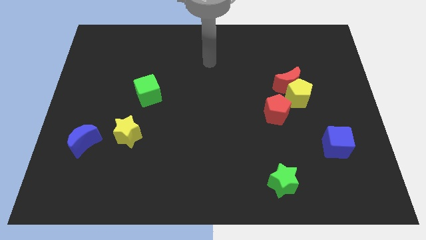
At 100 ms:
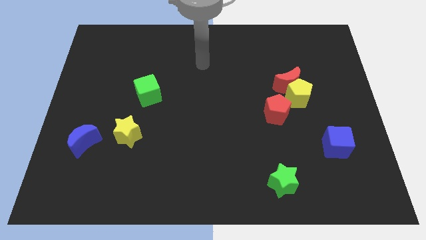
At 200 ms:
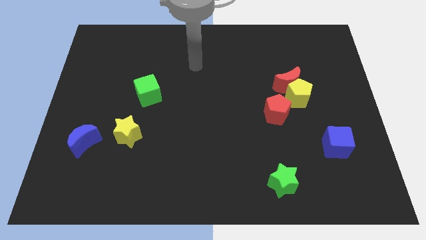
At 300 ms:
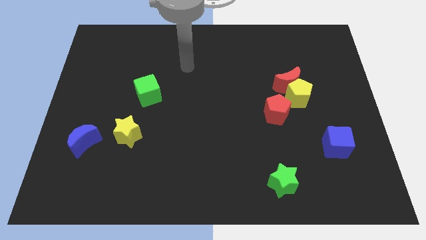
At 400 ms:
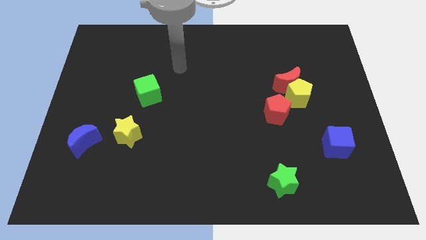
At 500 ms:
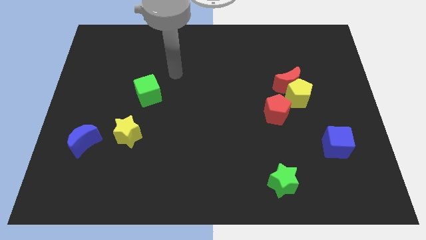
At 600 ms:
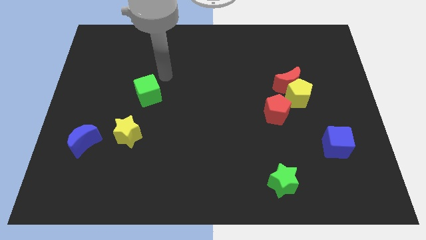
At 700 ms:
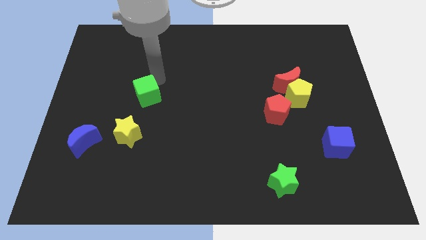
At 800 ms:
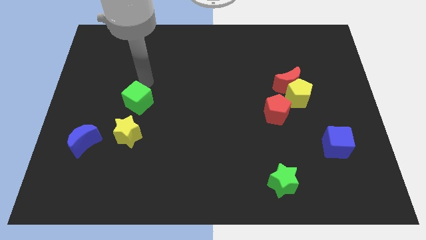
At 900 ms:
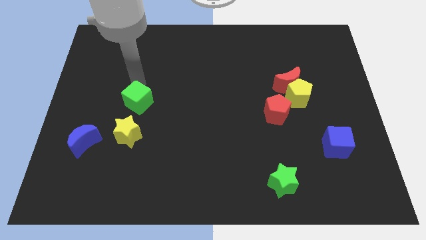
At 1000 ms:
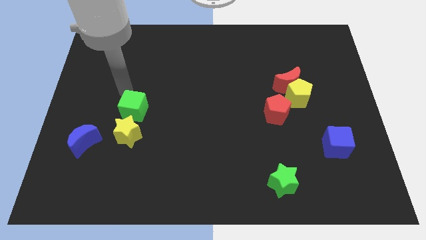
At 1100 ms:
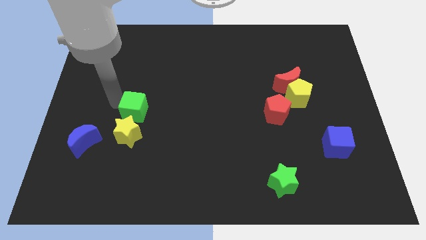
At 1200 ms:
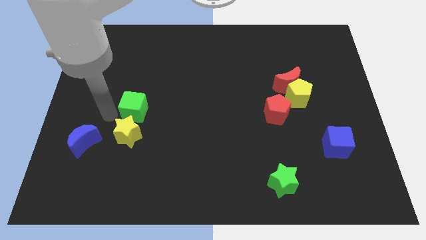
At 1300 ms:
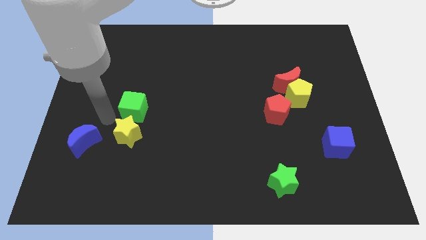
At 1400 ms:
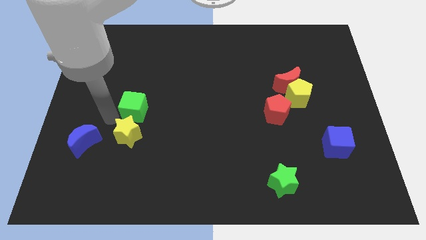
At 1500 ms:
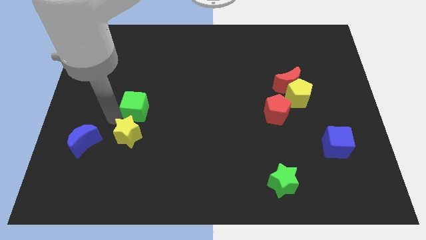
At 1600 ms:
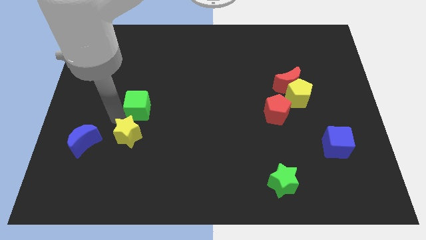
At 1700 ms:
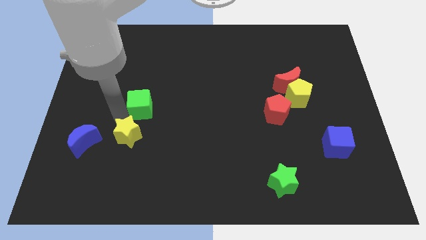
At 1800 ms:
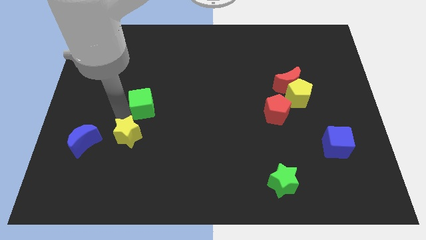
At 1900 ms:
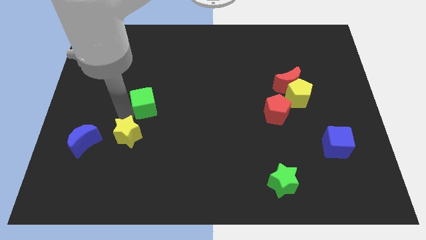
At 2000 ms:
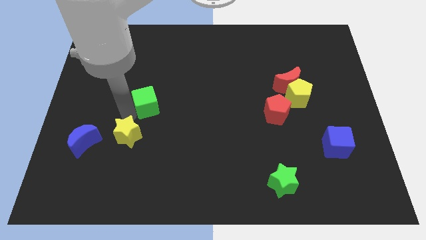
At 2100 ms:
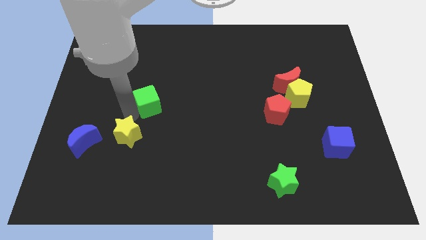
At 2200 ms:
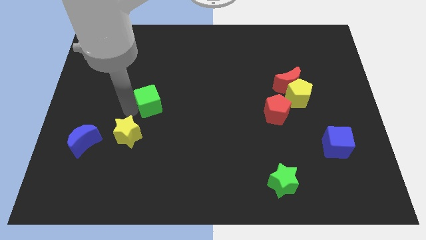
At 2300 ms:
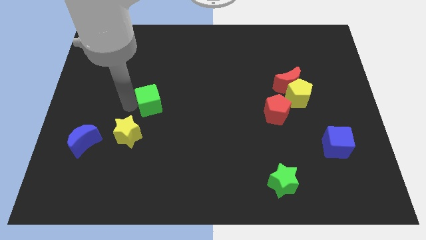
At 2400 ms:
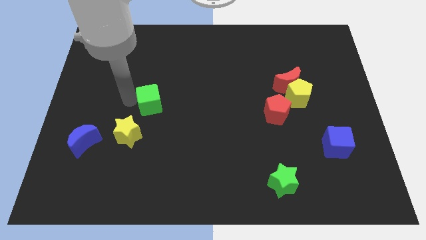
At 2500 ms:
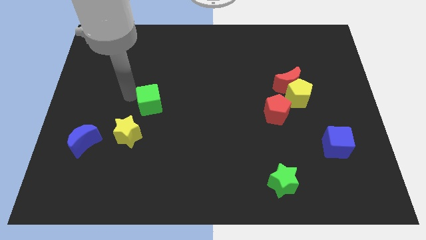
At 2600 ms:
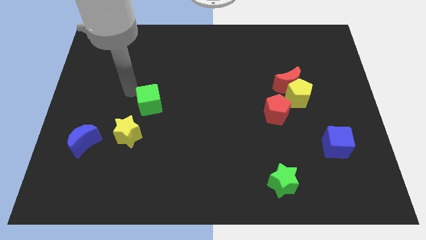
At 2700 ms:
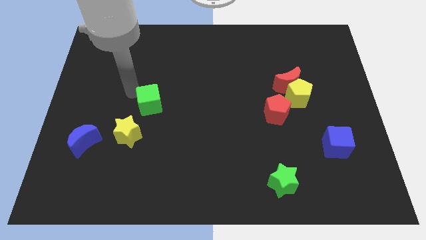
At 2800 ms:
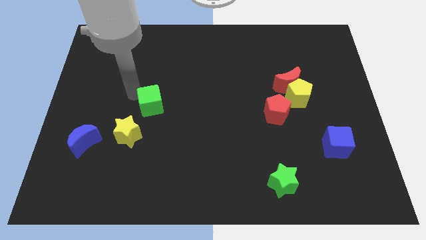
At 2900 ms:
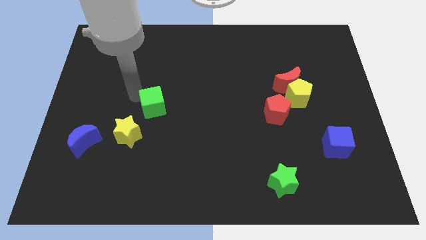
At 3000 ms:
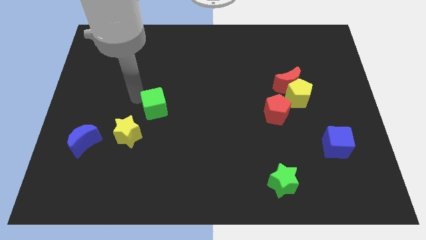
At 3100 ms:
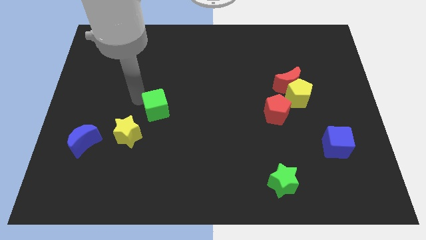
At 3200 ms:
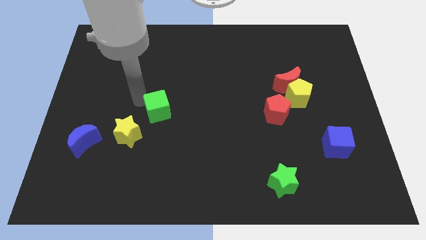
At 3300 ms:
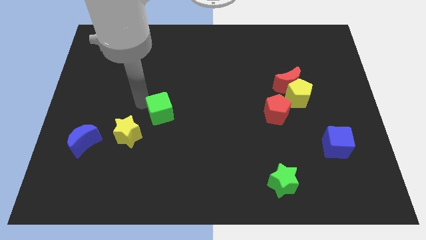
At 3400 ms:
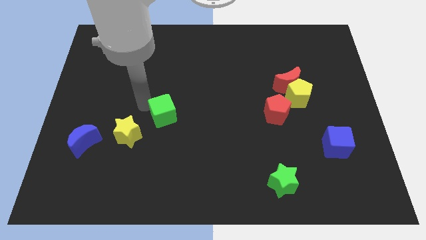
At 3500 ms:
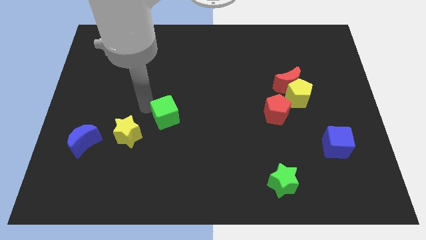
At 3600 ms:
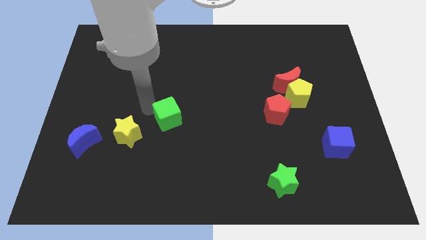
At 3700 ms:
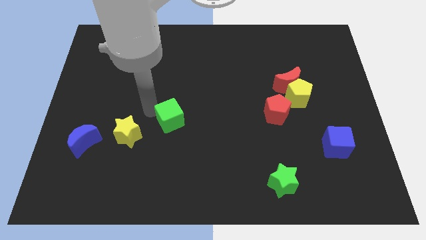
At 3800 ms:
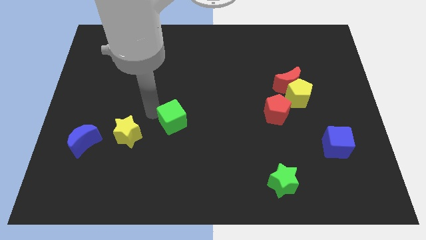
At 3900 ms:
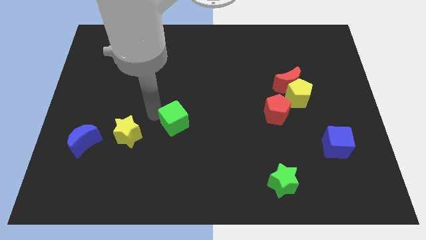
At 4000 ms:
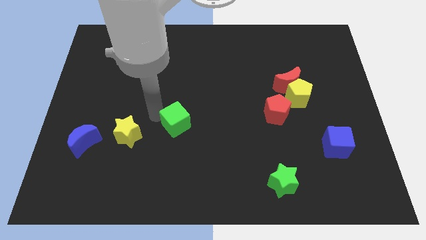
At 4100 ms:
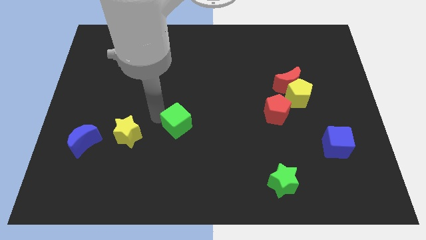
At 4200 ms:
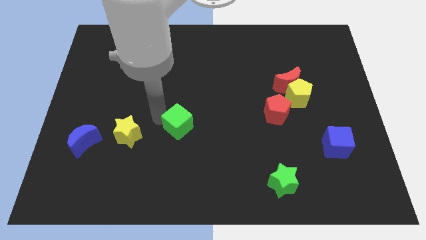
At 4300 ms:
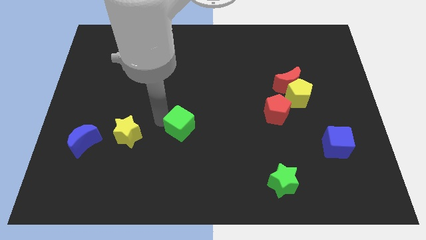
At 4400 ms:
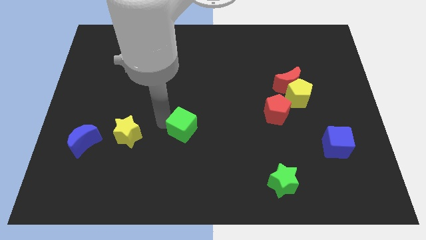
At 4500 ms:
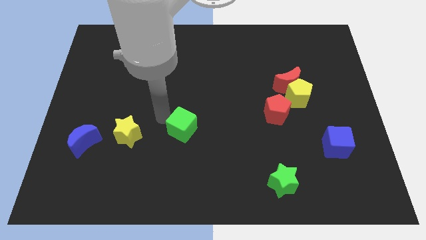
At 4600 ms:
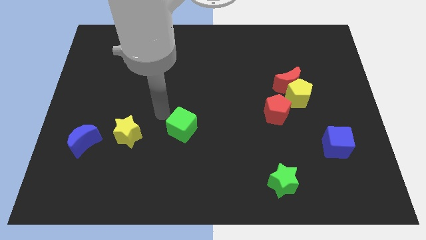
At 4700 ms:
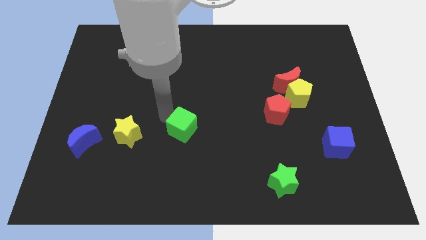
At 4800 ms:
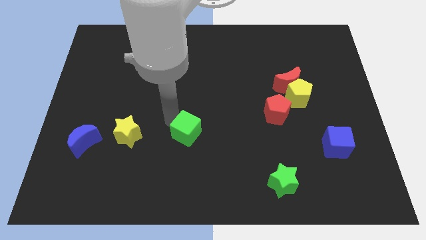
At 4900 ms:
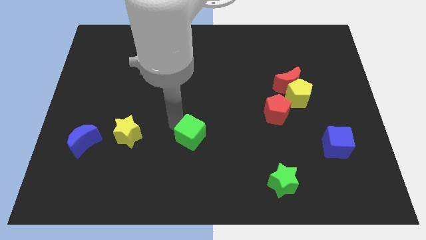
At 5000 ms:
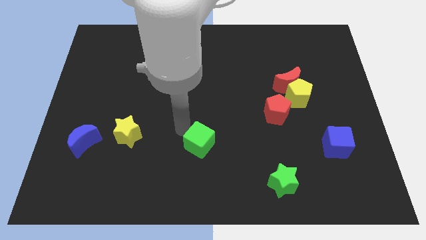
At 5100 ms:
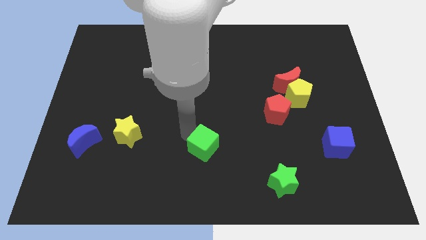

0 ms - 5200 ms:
slide the green cube diagonally down and right

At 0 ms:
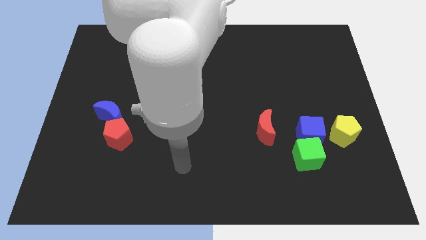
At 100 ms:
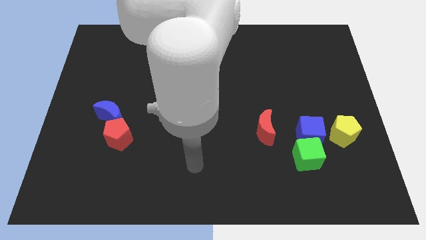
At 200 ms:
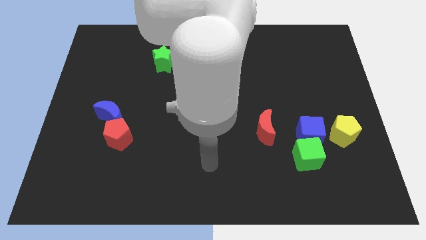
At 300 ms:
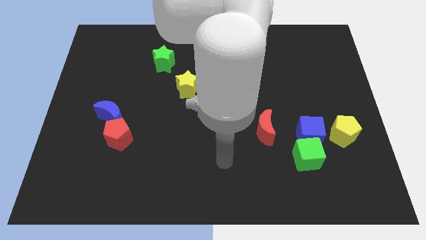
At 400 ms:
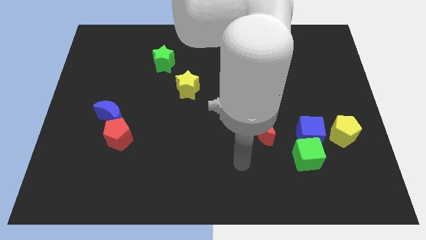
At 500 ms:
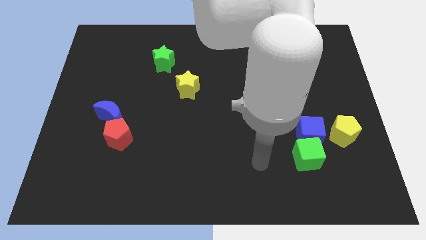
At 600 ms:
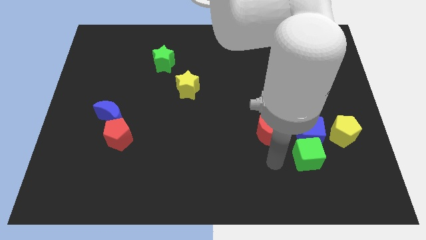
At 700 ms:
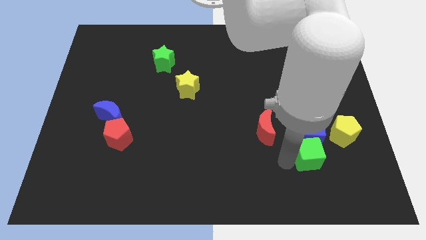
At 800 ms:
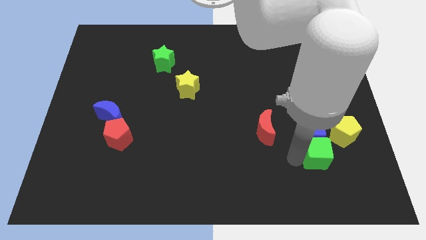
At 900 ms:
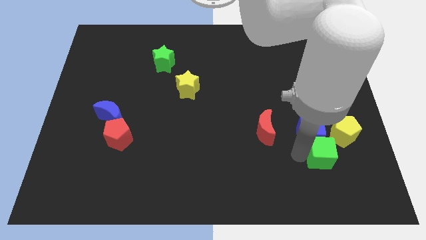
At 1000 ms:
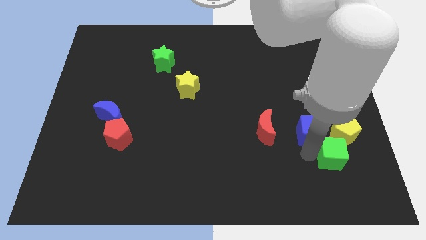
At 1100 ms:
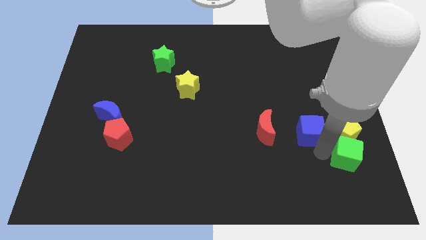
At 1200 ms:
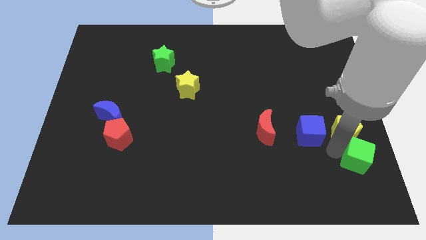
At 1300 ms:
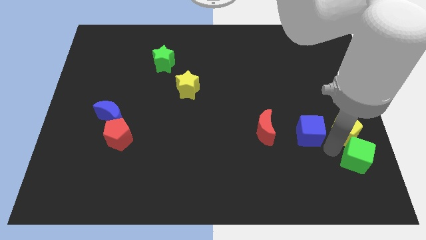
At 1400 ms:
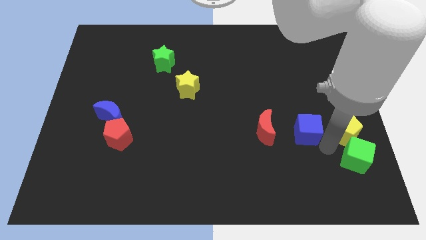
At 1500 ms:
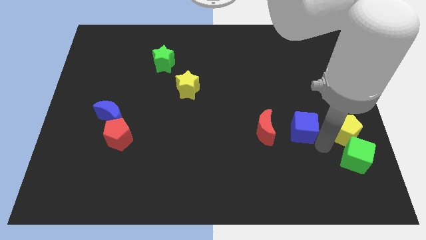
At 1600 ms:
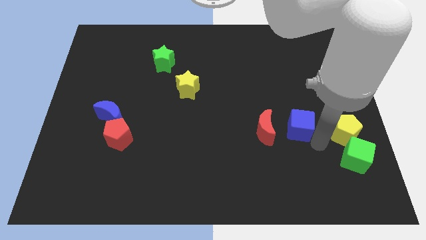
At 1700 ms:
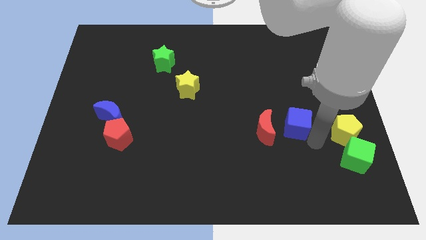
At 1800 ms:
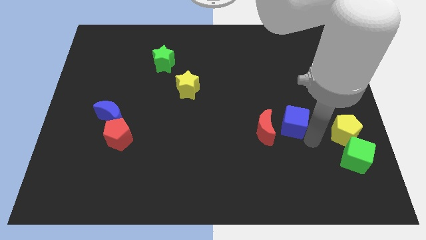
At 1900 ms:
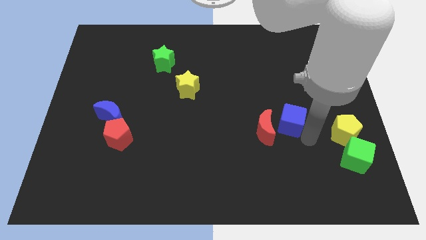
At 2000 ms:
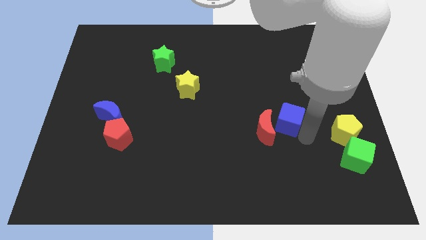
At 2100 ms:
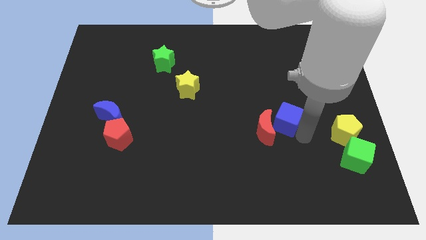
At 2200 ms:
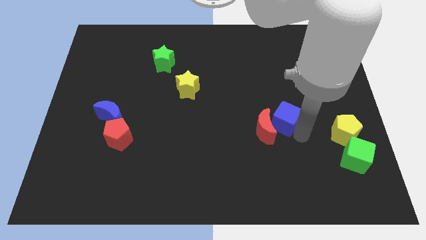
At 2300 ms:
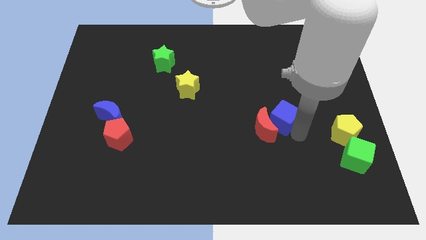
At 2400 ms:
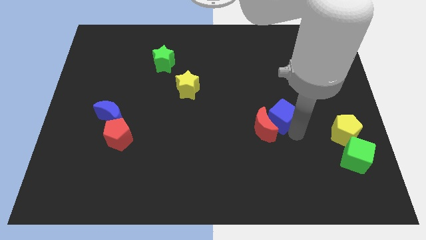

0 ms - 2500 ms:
push the blue cube a bit up and to the left

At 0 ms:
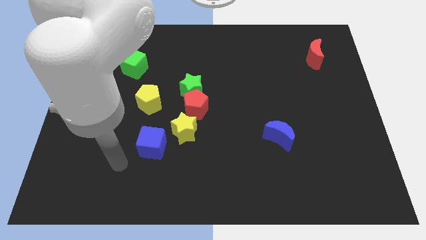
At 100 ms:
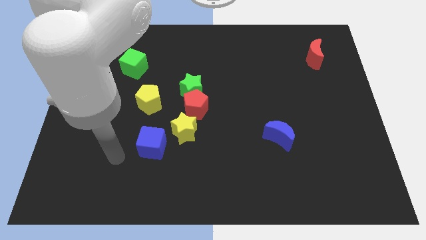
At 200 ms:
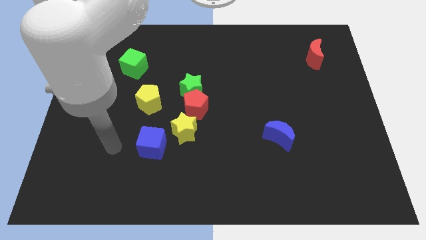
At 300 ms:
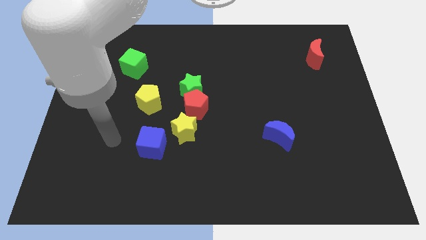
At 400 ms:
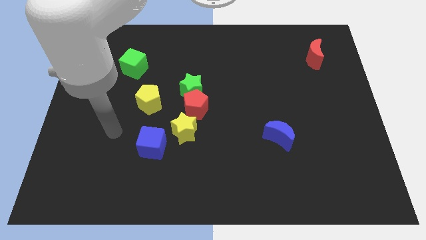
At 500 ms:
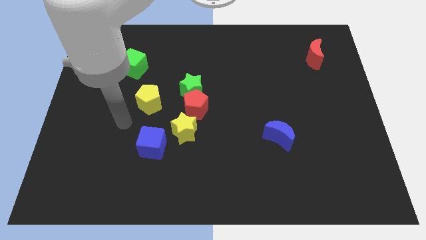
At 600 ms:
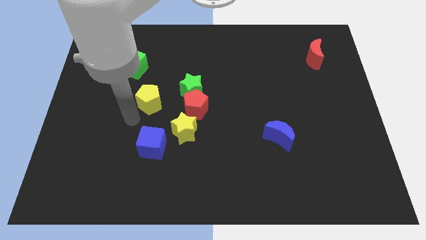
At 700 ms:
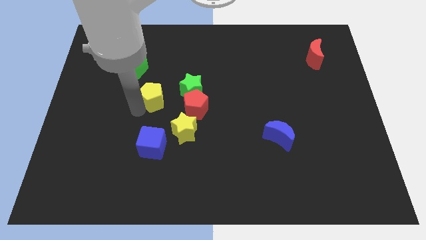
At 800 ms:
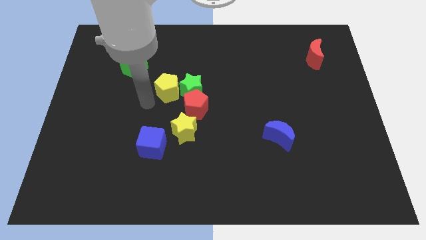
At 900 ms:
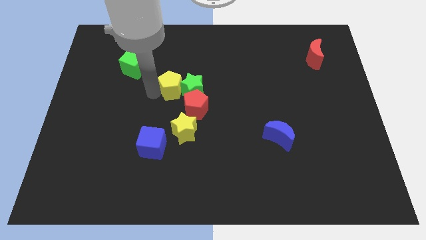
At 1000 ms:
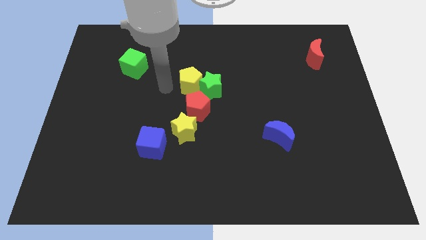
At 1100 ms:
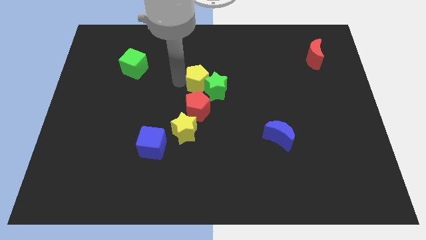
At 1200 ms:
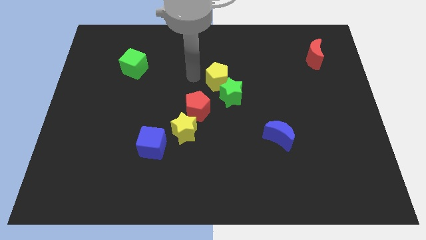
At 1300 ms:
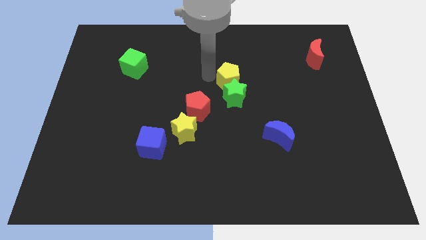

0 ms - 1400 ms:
slightly push the green star diagonally downwards and right
